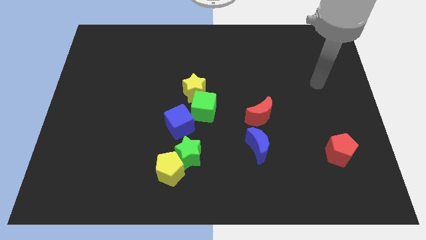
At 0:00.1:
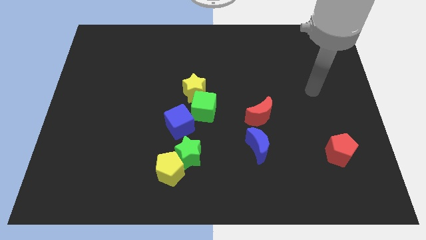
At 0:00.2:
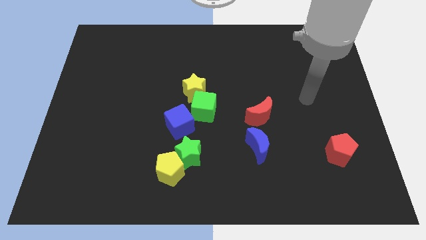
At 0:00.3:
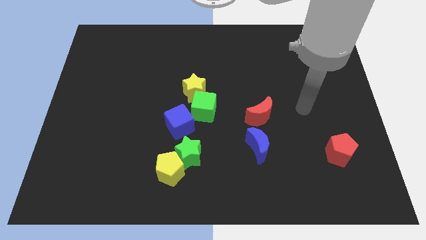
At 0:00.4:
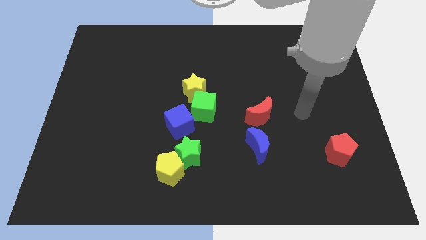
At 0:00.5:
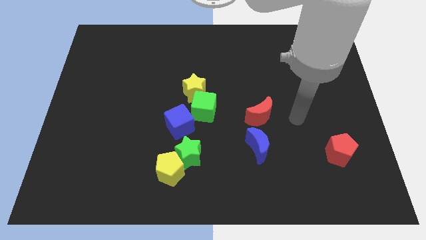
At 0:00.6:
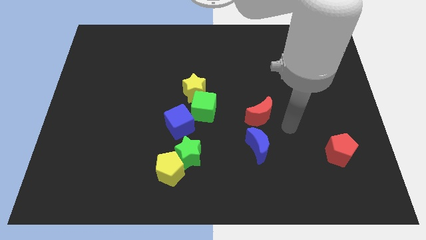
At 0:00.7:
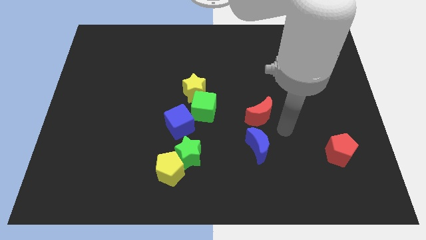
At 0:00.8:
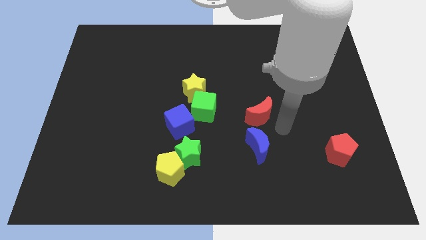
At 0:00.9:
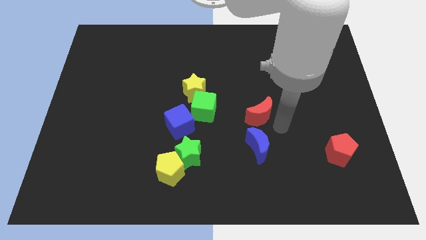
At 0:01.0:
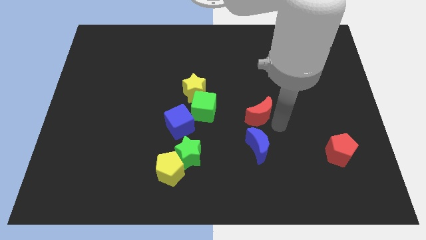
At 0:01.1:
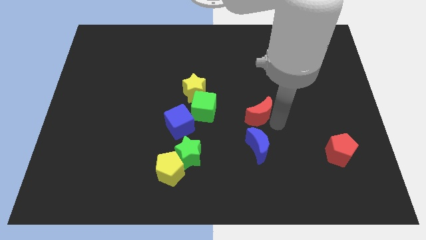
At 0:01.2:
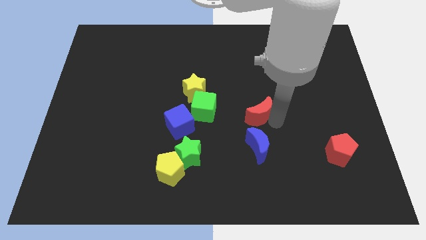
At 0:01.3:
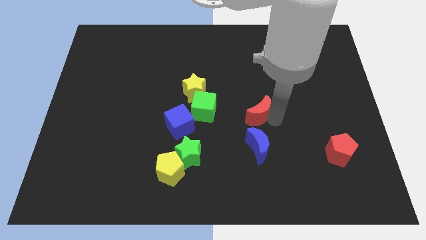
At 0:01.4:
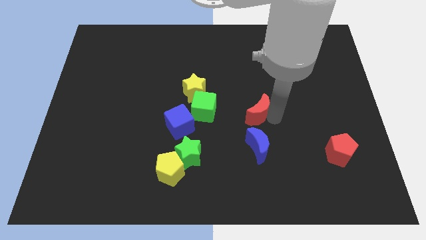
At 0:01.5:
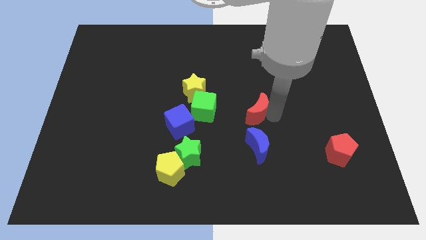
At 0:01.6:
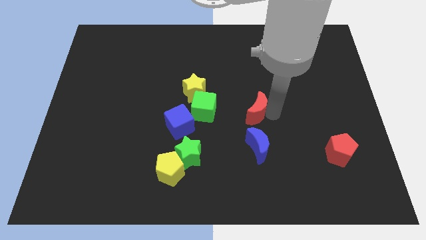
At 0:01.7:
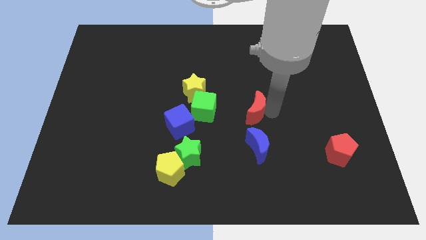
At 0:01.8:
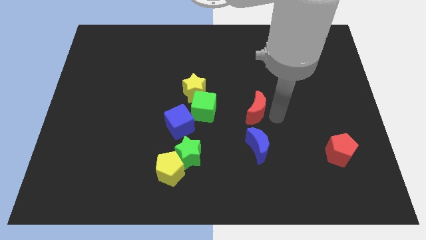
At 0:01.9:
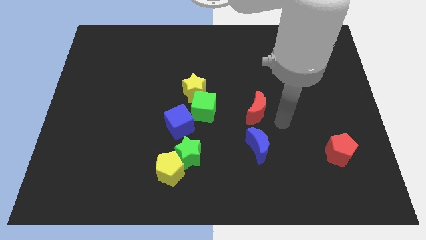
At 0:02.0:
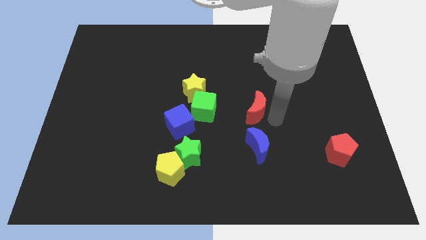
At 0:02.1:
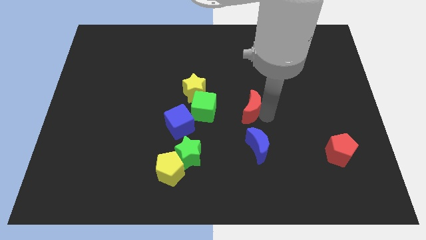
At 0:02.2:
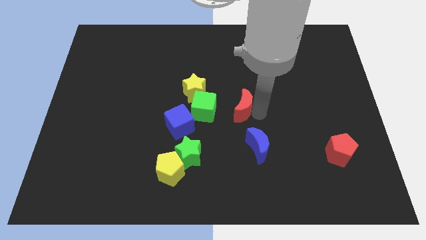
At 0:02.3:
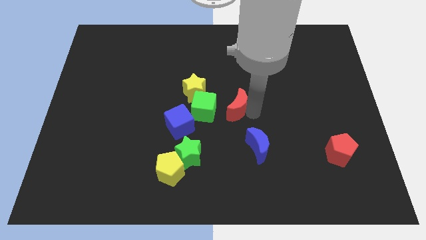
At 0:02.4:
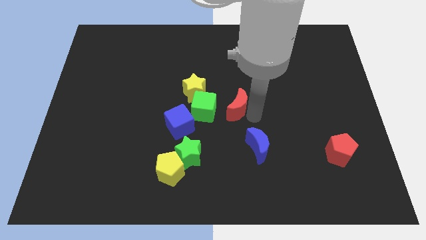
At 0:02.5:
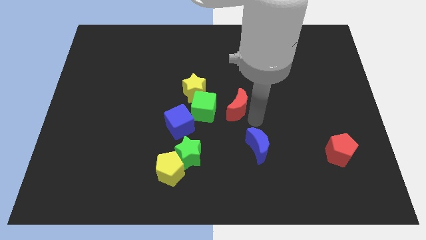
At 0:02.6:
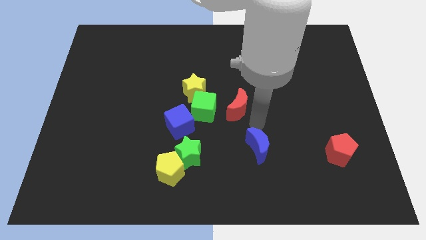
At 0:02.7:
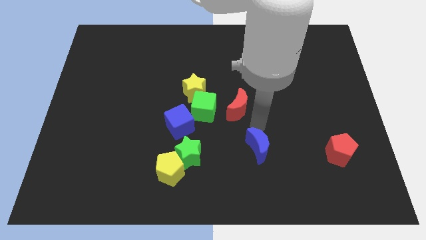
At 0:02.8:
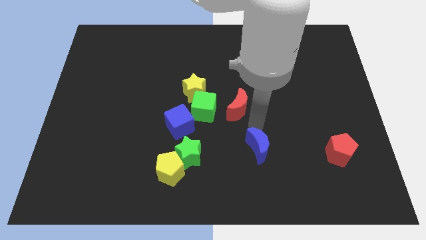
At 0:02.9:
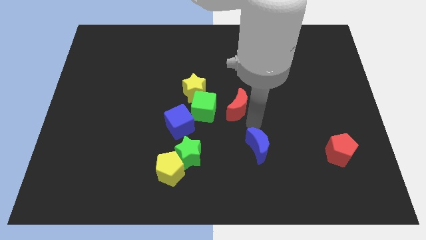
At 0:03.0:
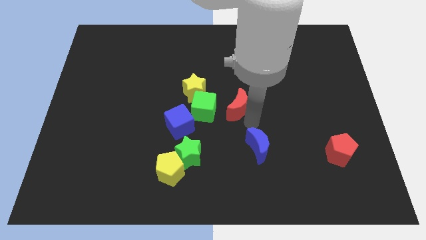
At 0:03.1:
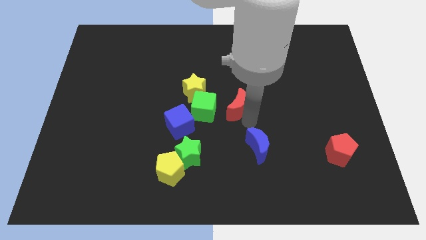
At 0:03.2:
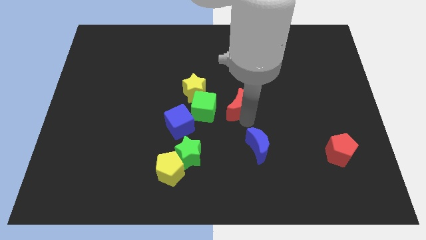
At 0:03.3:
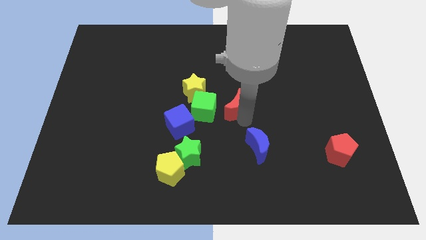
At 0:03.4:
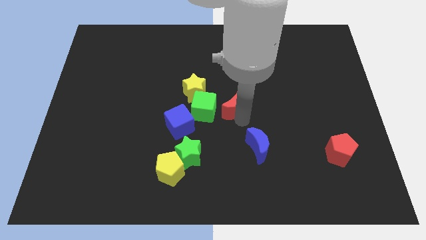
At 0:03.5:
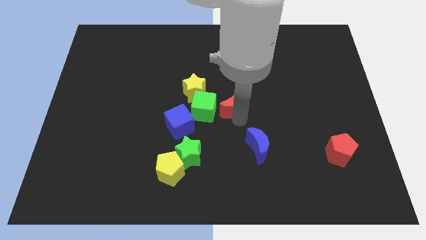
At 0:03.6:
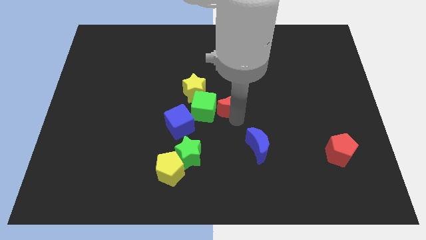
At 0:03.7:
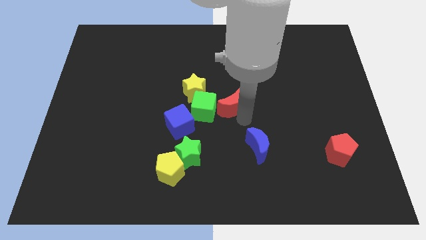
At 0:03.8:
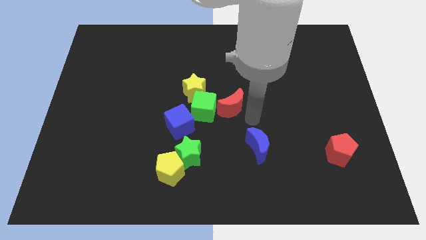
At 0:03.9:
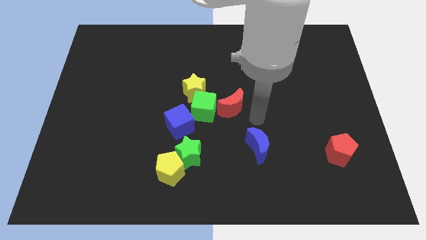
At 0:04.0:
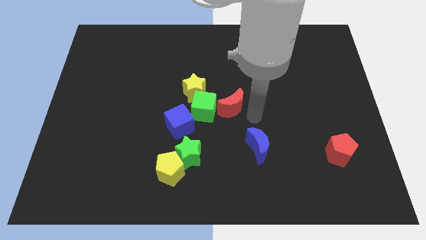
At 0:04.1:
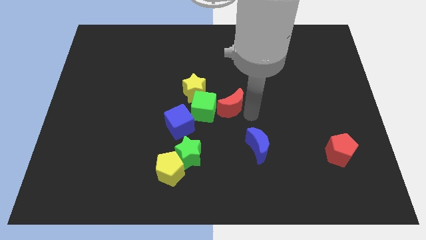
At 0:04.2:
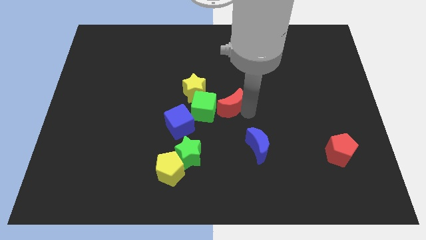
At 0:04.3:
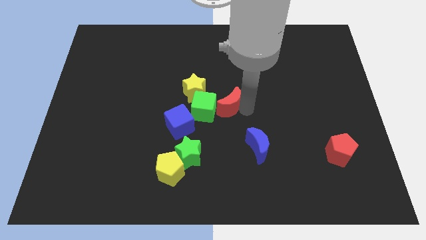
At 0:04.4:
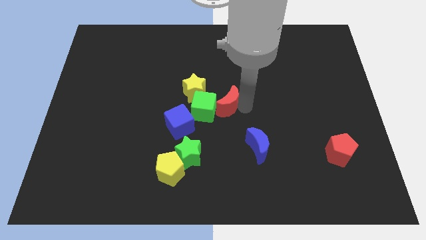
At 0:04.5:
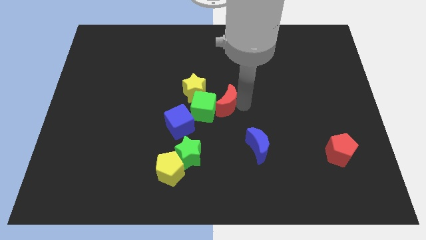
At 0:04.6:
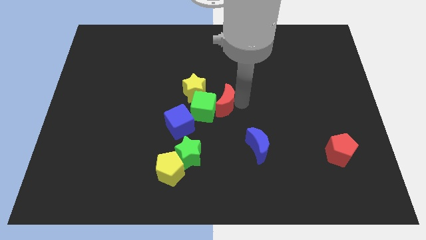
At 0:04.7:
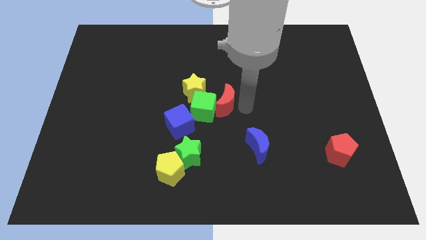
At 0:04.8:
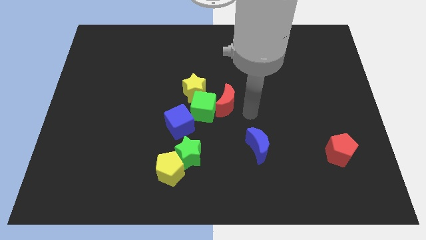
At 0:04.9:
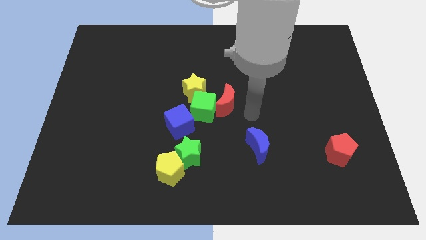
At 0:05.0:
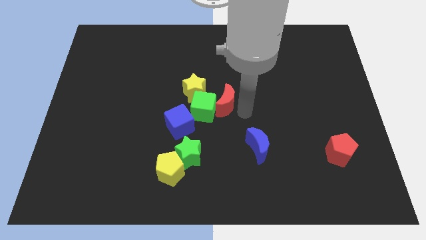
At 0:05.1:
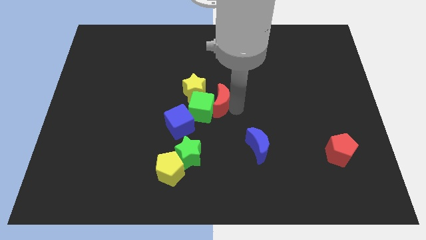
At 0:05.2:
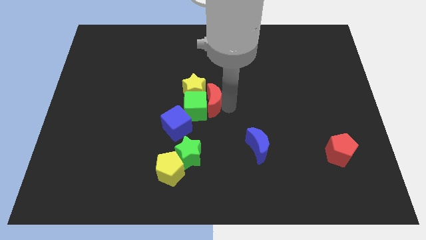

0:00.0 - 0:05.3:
move the red moon next to the yellow star

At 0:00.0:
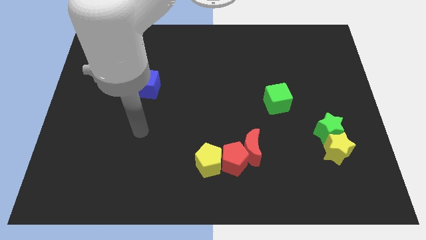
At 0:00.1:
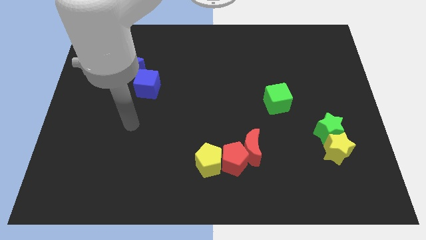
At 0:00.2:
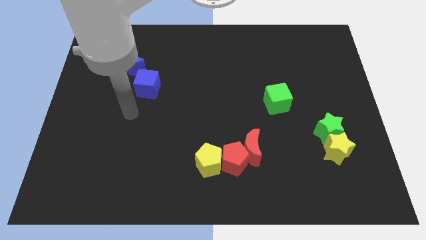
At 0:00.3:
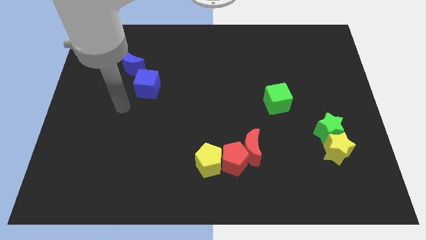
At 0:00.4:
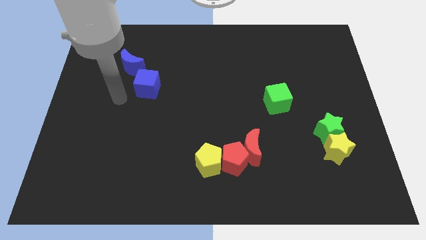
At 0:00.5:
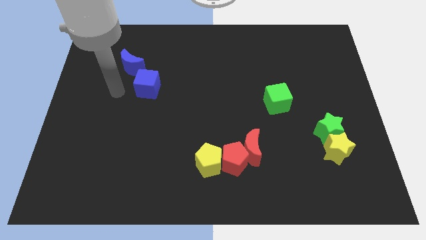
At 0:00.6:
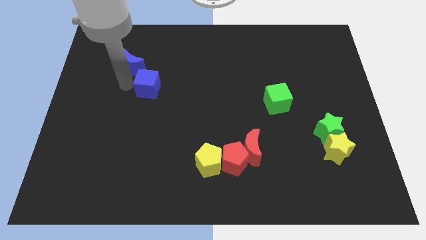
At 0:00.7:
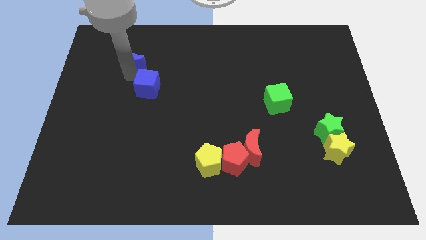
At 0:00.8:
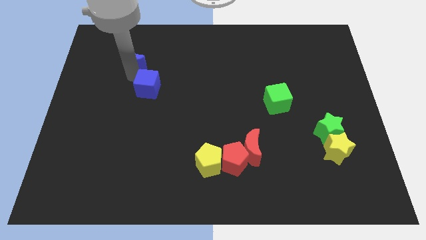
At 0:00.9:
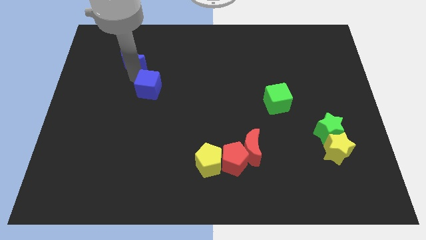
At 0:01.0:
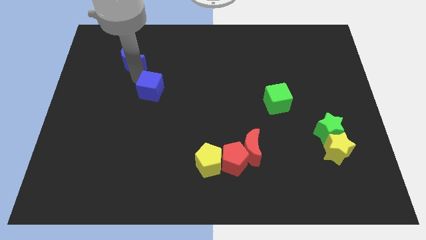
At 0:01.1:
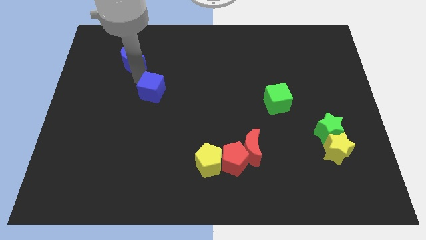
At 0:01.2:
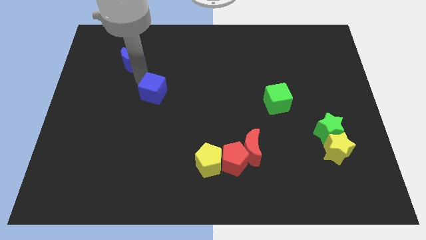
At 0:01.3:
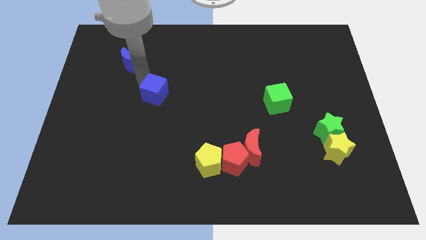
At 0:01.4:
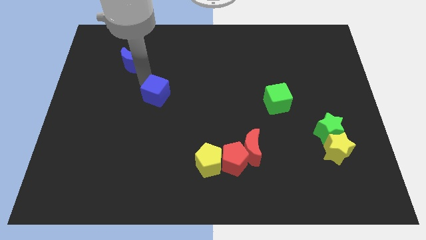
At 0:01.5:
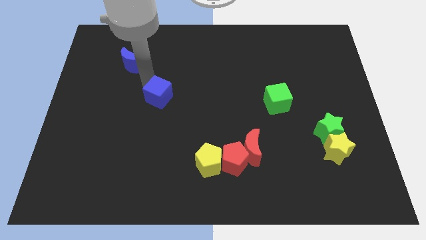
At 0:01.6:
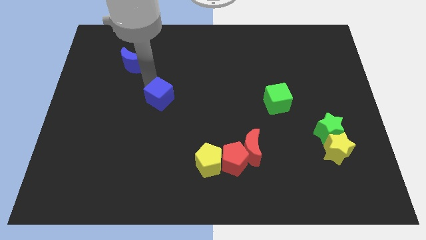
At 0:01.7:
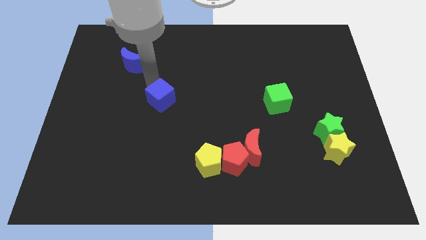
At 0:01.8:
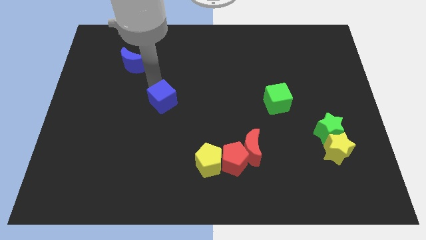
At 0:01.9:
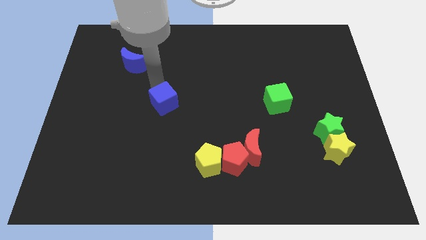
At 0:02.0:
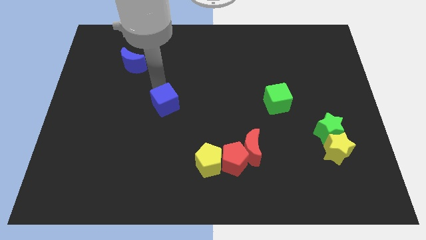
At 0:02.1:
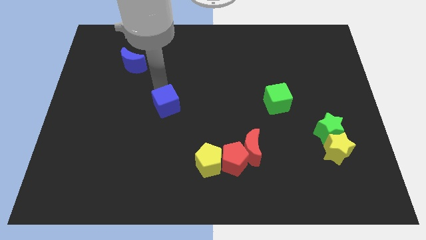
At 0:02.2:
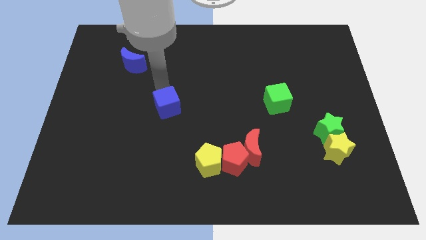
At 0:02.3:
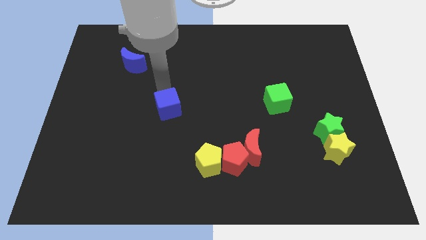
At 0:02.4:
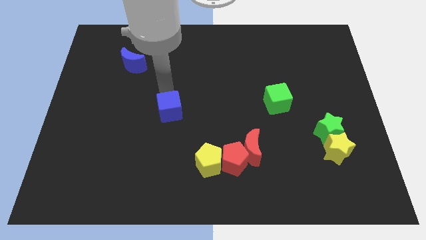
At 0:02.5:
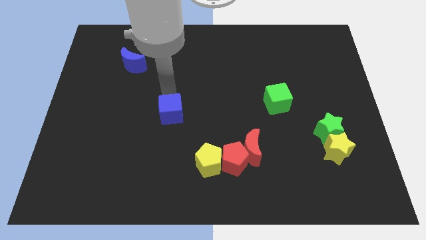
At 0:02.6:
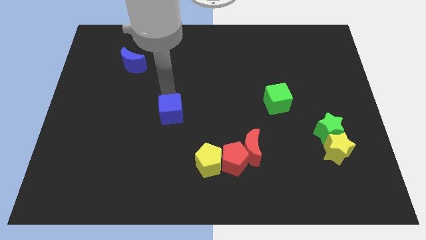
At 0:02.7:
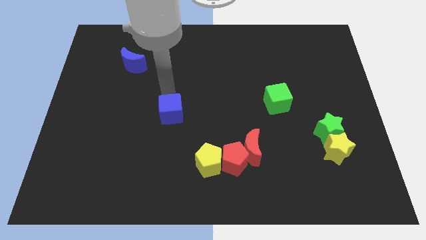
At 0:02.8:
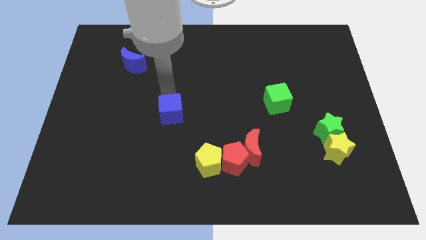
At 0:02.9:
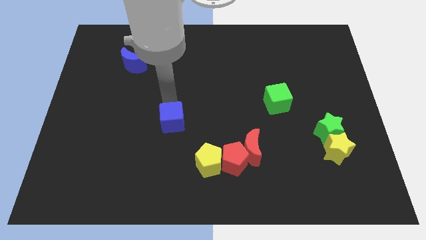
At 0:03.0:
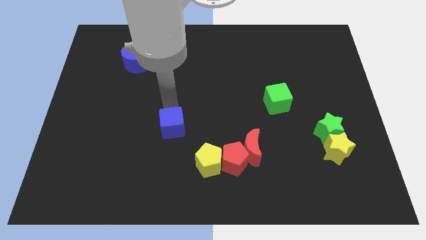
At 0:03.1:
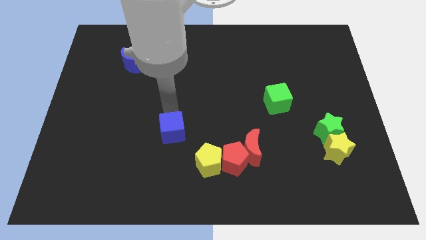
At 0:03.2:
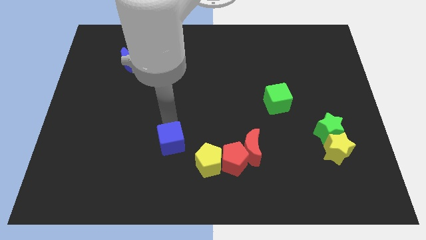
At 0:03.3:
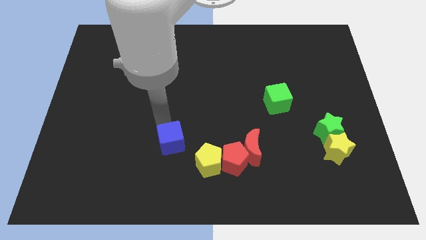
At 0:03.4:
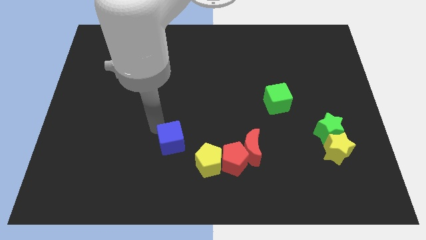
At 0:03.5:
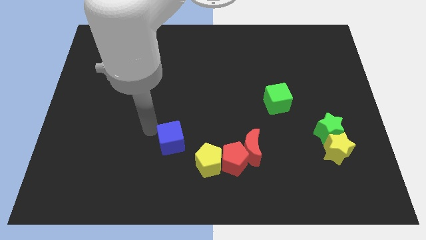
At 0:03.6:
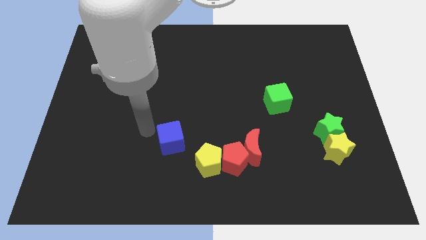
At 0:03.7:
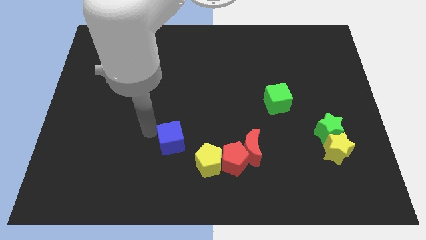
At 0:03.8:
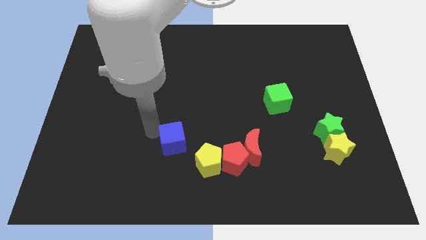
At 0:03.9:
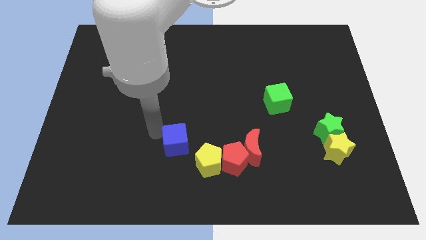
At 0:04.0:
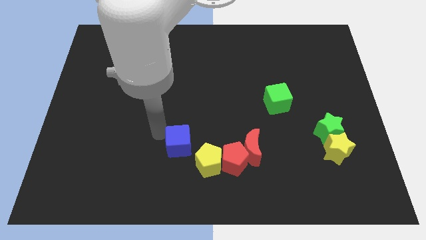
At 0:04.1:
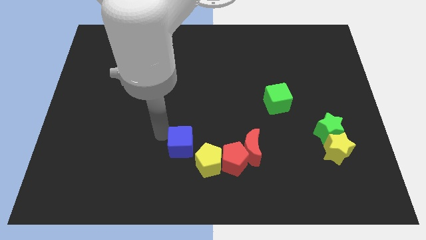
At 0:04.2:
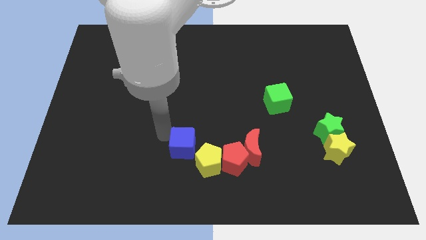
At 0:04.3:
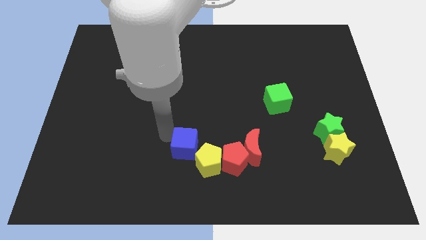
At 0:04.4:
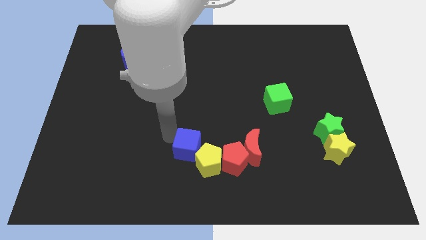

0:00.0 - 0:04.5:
push the blue cube to the yellow pentagon
